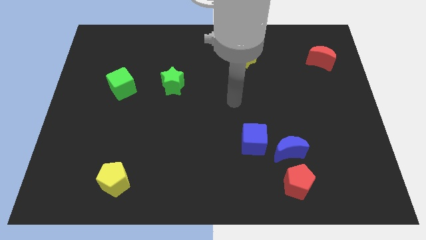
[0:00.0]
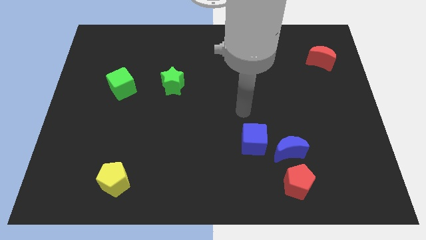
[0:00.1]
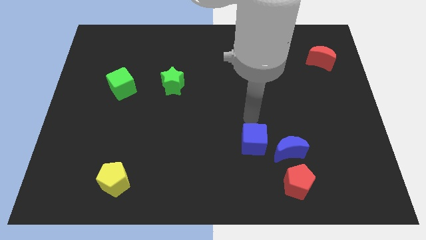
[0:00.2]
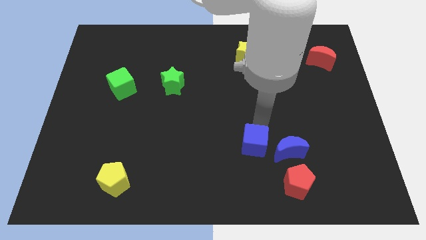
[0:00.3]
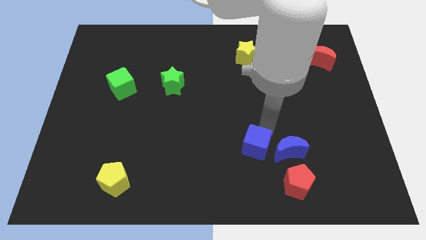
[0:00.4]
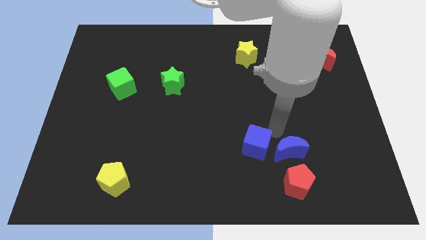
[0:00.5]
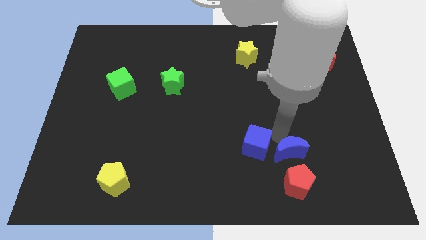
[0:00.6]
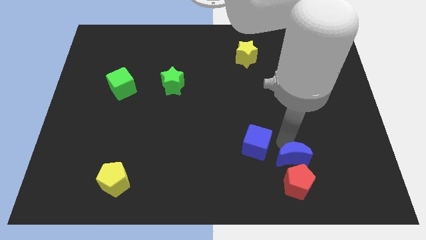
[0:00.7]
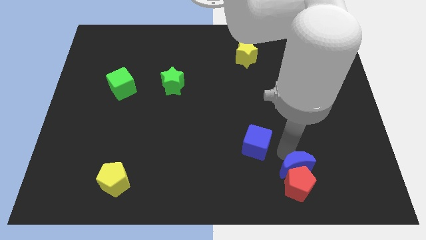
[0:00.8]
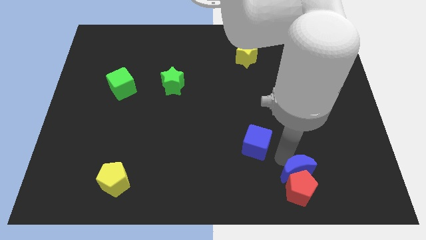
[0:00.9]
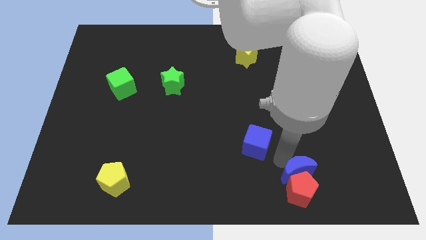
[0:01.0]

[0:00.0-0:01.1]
move the blue cube away from the blue moon

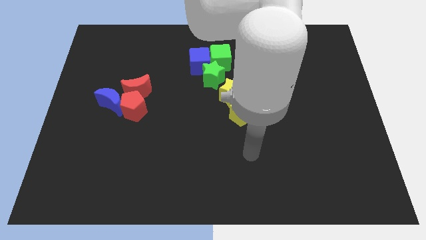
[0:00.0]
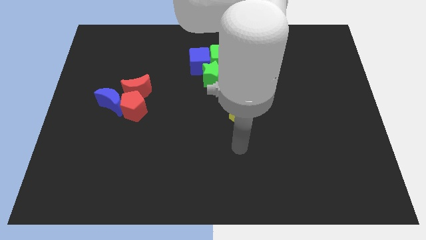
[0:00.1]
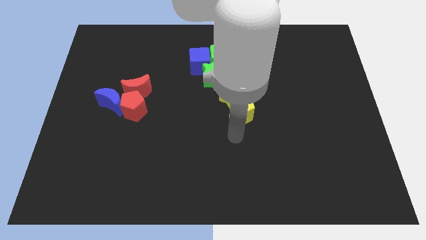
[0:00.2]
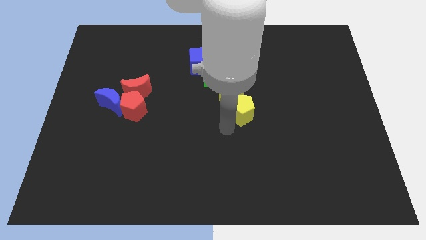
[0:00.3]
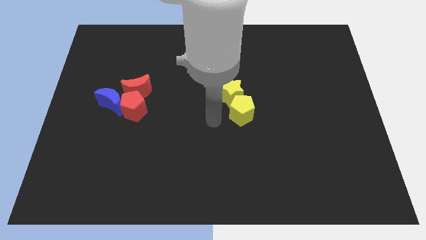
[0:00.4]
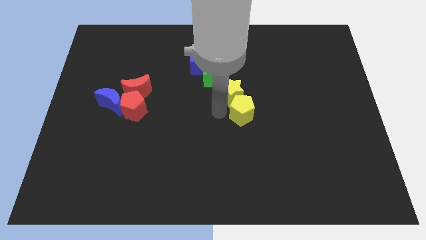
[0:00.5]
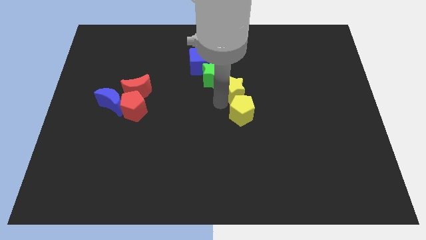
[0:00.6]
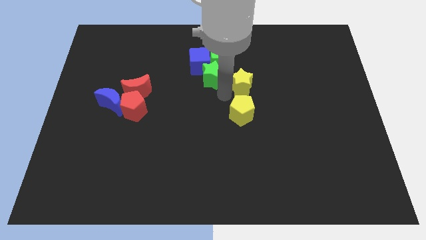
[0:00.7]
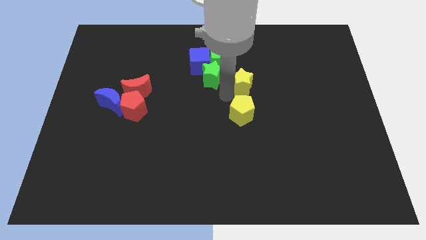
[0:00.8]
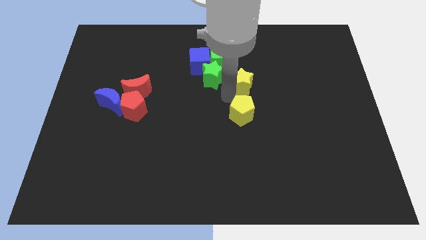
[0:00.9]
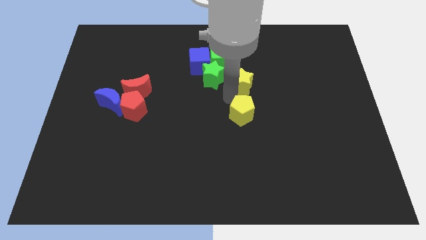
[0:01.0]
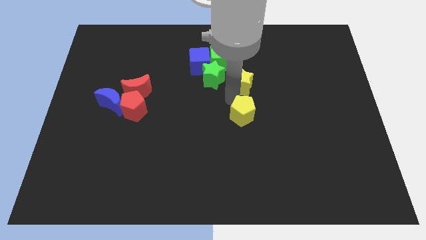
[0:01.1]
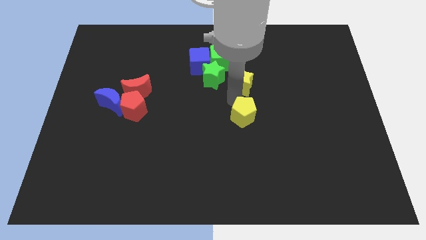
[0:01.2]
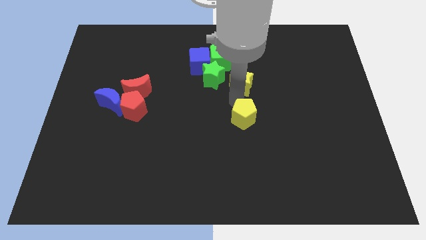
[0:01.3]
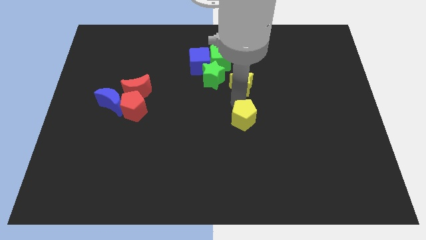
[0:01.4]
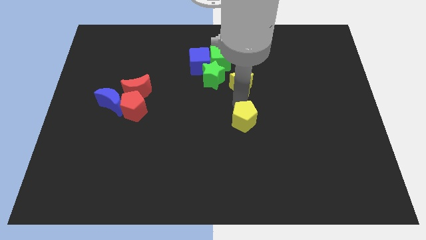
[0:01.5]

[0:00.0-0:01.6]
move the yellow pentagon away from the yellow star

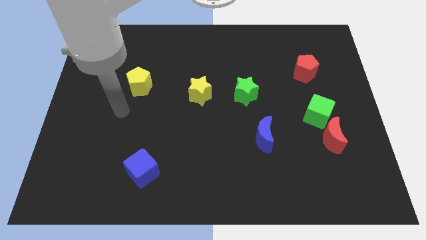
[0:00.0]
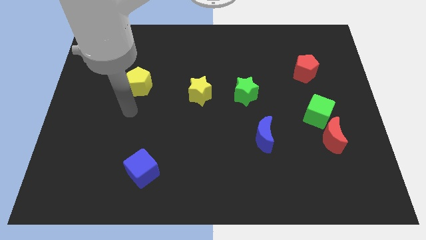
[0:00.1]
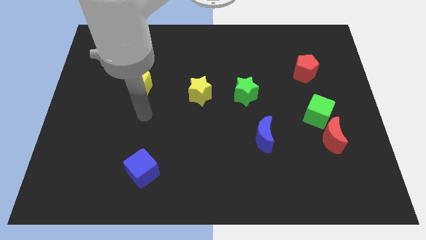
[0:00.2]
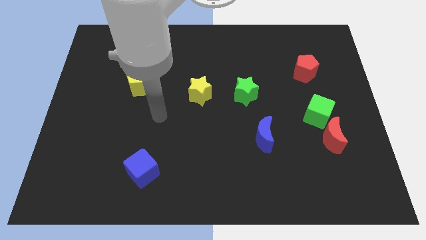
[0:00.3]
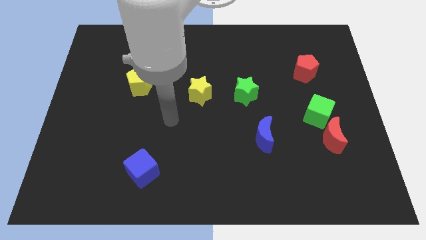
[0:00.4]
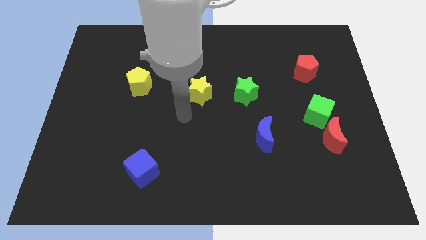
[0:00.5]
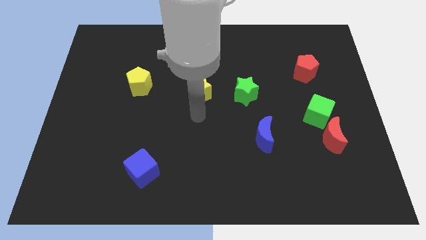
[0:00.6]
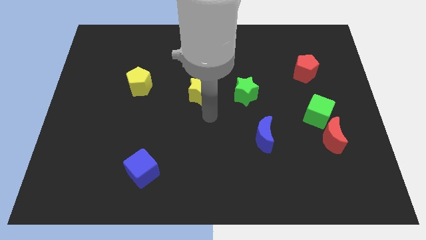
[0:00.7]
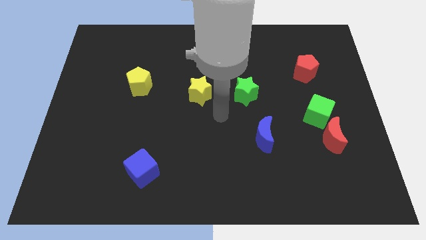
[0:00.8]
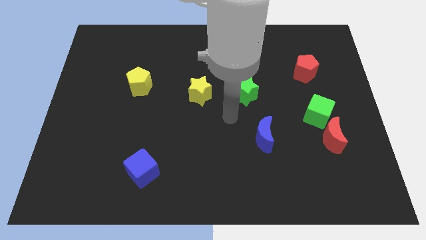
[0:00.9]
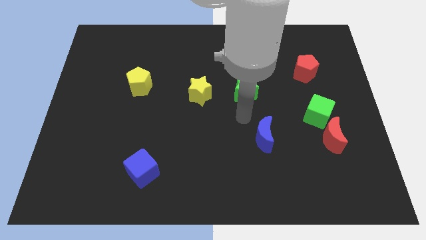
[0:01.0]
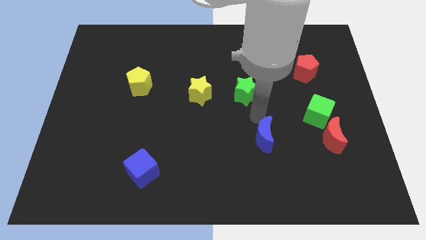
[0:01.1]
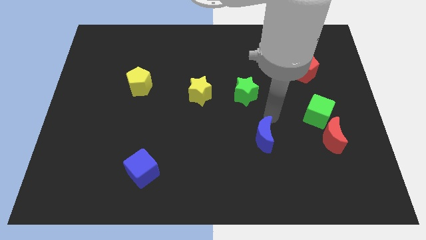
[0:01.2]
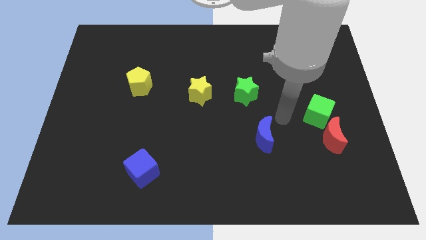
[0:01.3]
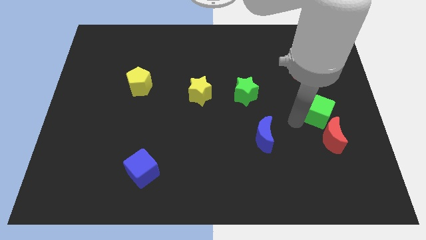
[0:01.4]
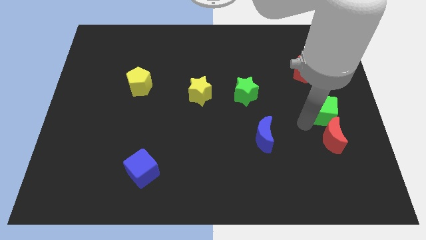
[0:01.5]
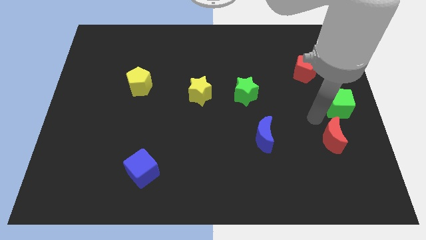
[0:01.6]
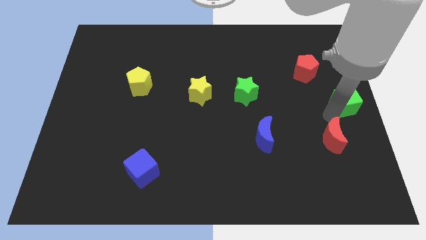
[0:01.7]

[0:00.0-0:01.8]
separate the red moon from the green cube

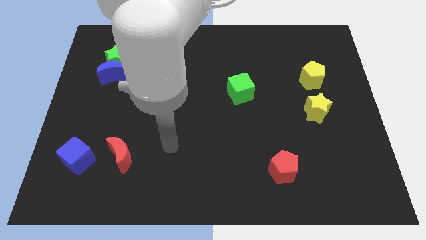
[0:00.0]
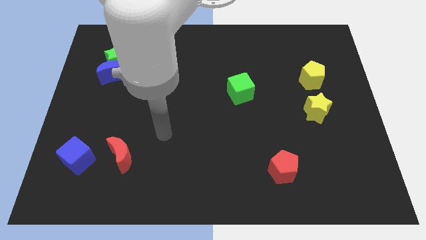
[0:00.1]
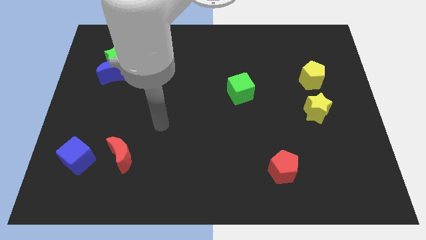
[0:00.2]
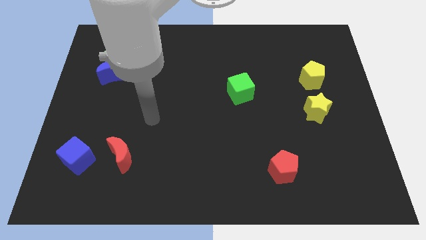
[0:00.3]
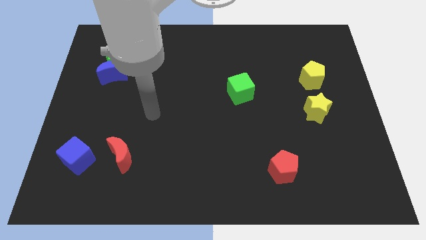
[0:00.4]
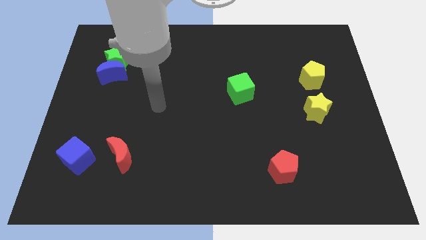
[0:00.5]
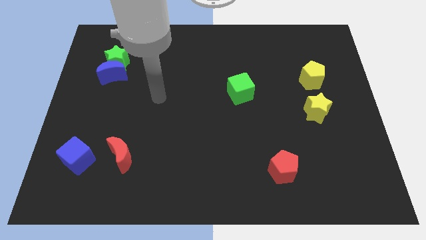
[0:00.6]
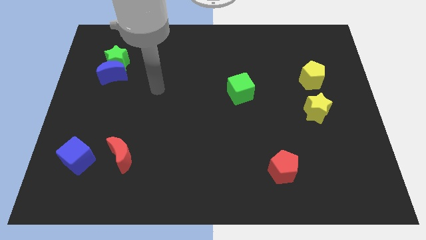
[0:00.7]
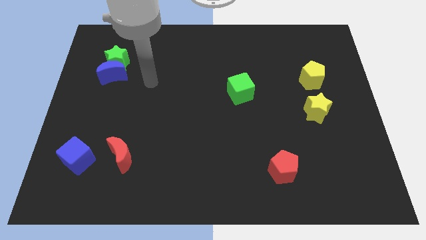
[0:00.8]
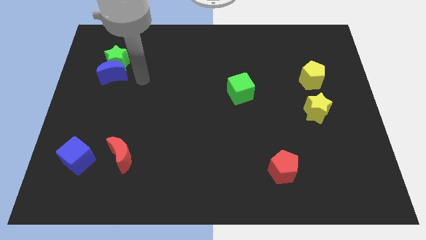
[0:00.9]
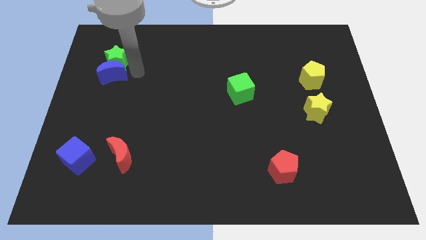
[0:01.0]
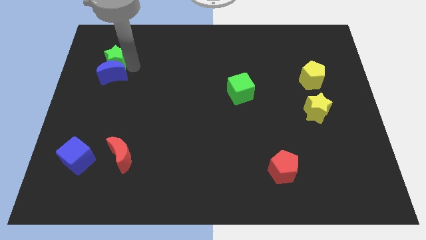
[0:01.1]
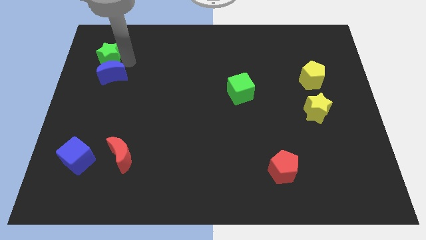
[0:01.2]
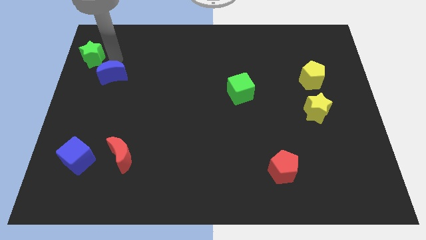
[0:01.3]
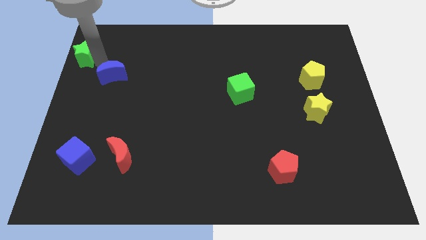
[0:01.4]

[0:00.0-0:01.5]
move the blue moon away from the green star

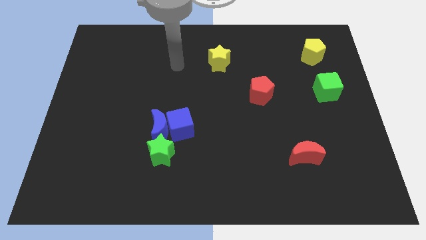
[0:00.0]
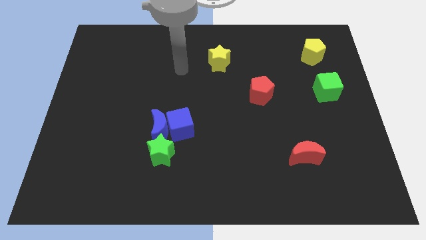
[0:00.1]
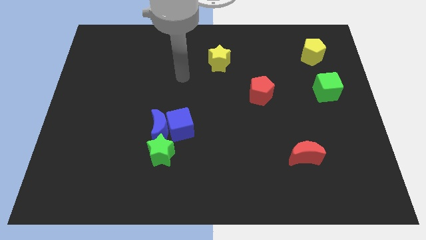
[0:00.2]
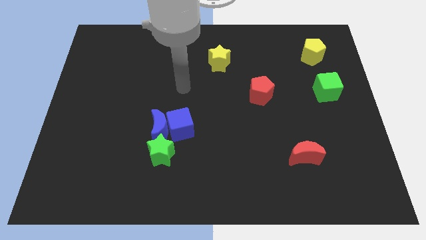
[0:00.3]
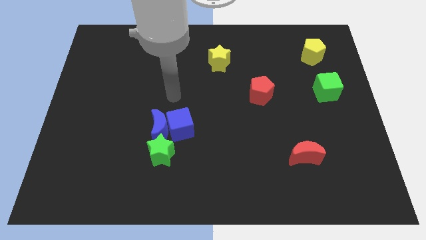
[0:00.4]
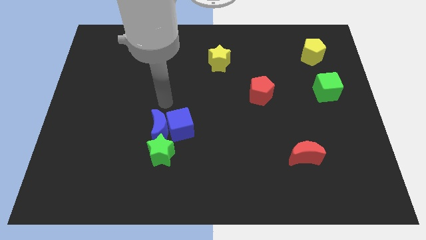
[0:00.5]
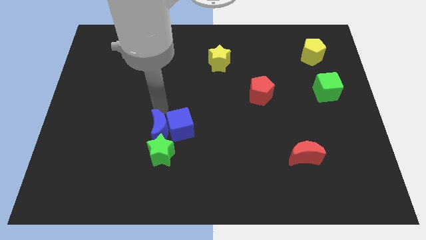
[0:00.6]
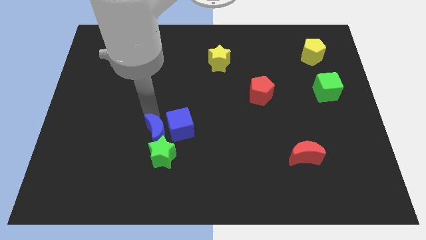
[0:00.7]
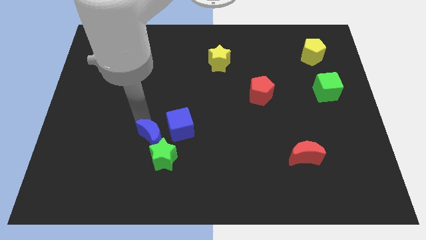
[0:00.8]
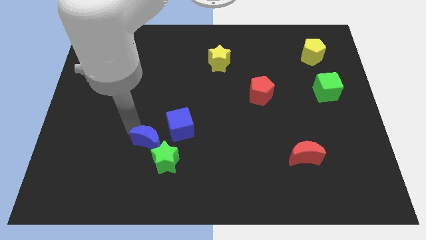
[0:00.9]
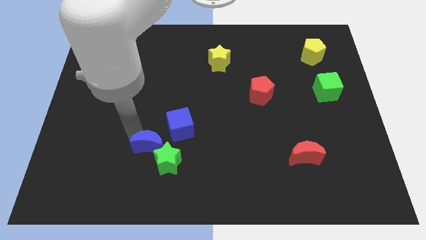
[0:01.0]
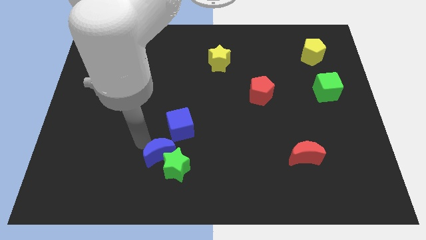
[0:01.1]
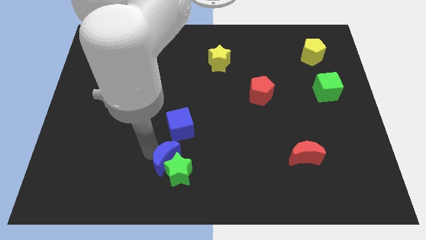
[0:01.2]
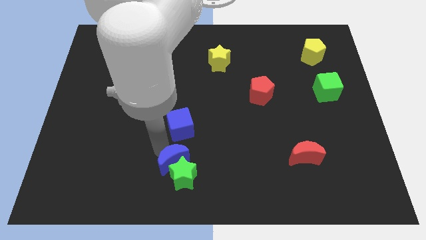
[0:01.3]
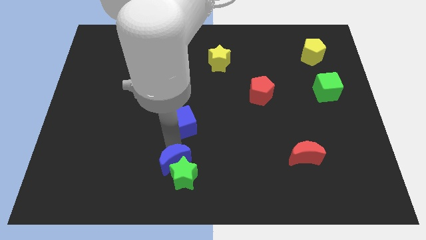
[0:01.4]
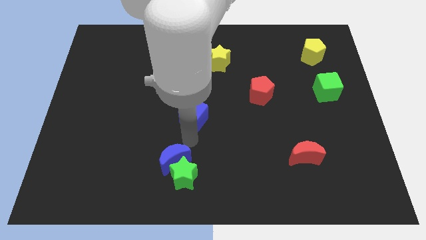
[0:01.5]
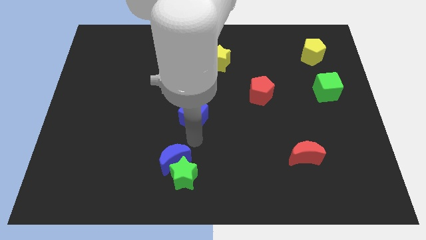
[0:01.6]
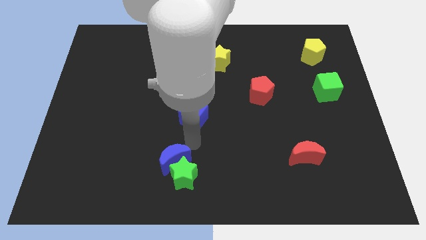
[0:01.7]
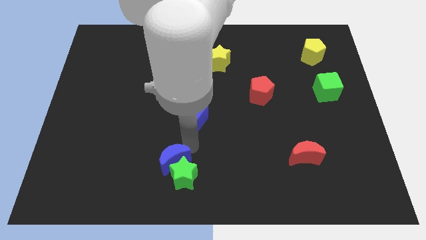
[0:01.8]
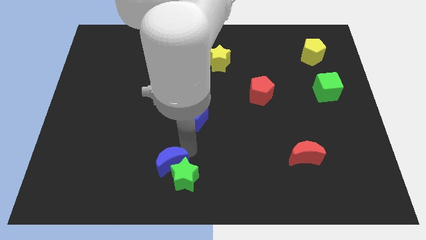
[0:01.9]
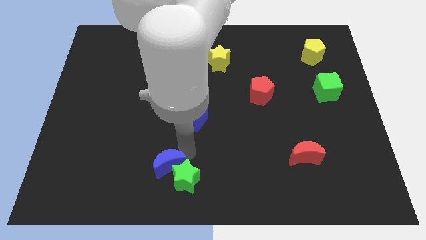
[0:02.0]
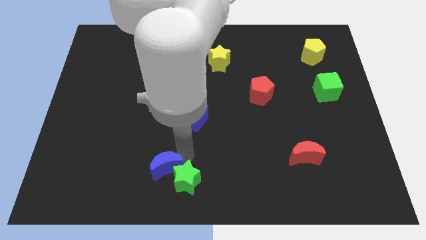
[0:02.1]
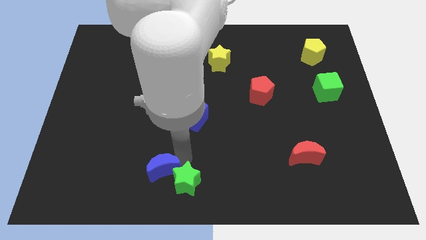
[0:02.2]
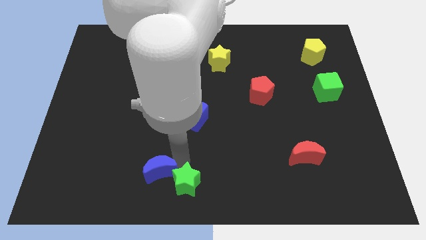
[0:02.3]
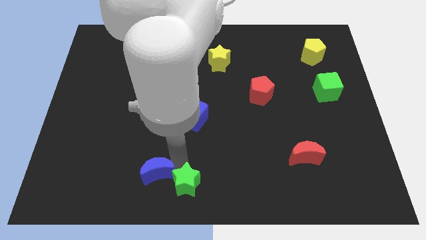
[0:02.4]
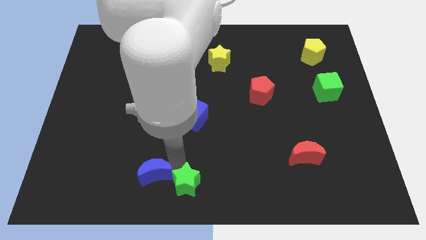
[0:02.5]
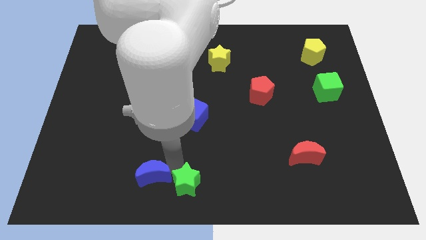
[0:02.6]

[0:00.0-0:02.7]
pull the blue moon apart from the blue cube and green star

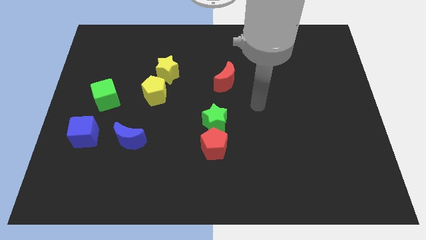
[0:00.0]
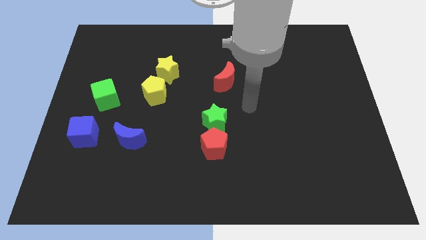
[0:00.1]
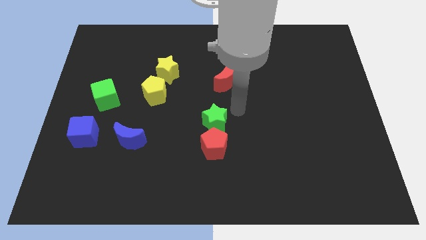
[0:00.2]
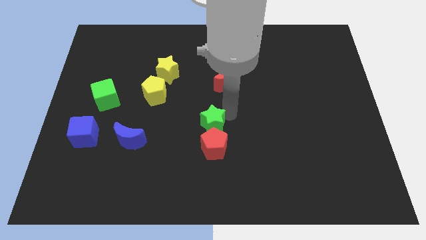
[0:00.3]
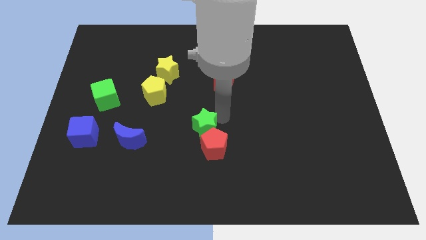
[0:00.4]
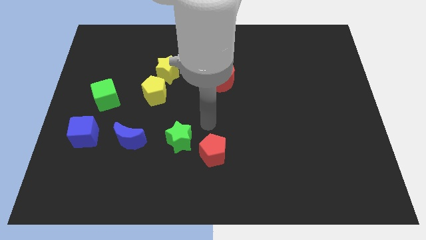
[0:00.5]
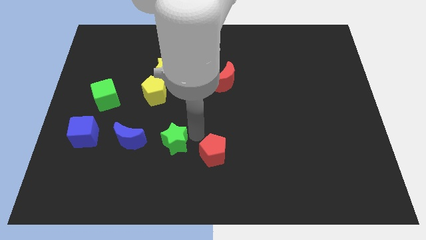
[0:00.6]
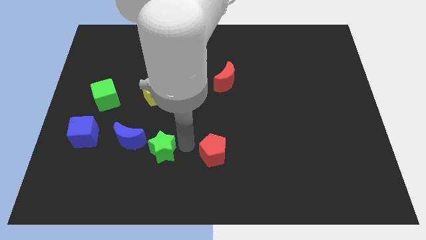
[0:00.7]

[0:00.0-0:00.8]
pull the red pentagon apart from the green star
